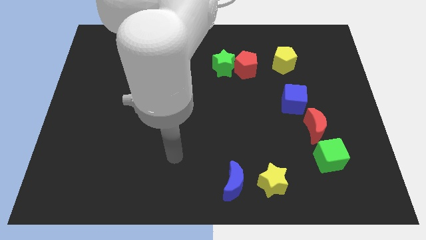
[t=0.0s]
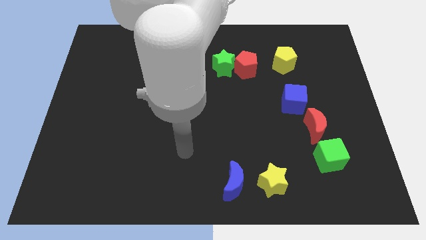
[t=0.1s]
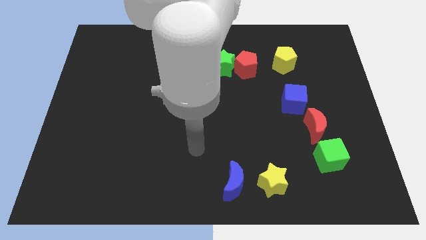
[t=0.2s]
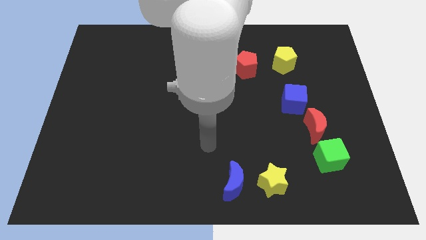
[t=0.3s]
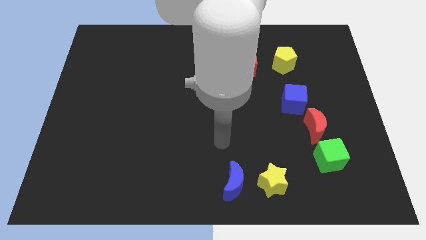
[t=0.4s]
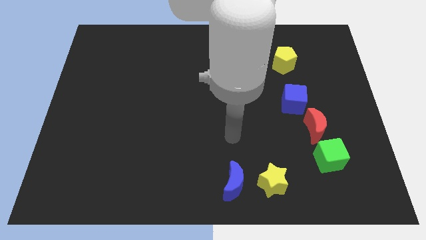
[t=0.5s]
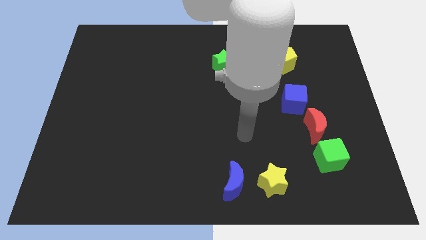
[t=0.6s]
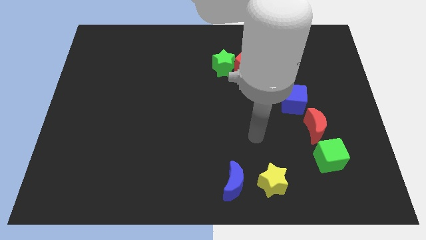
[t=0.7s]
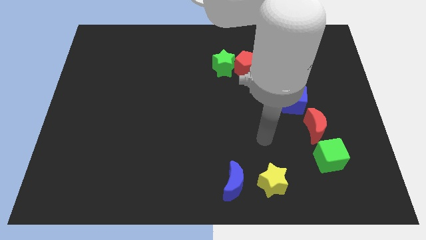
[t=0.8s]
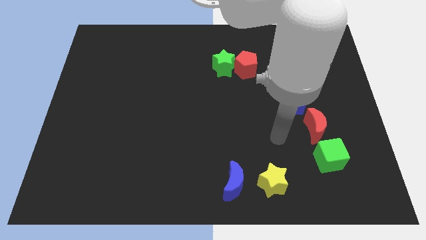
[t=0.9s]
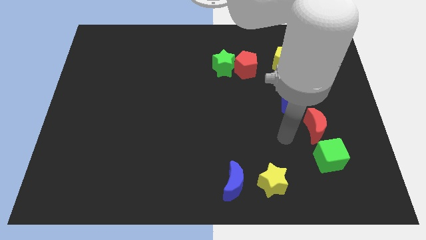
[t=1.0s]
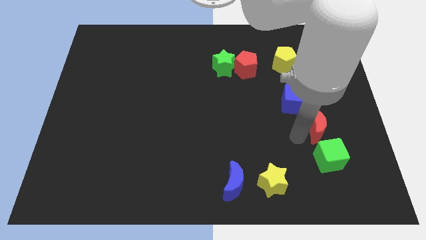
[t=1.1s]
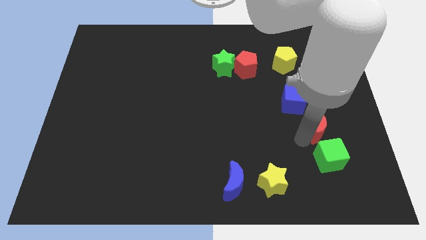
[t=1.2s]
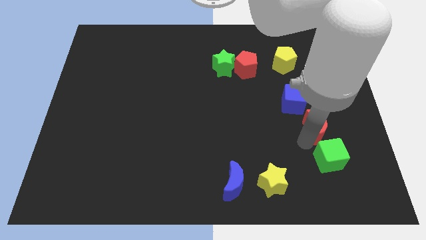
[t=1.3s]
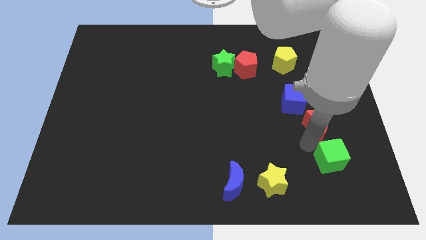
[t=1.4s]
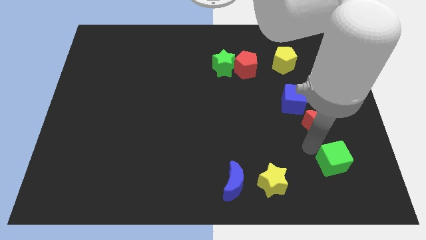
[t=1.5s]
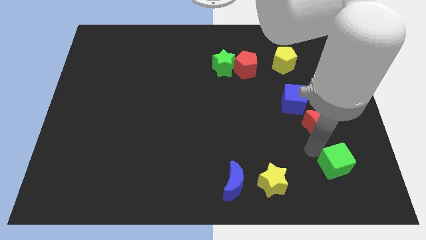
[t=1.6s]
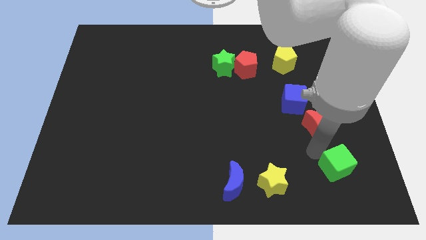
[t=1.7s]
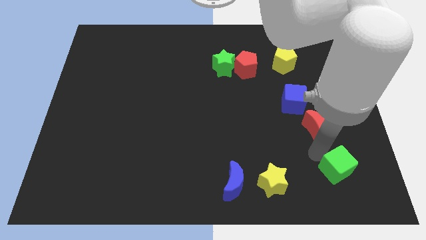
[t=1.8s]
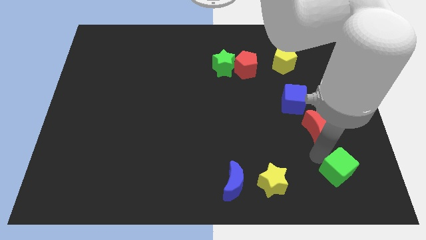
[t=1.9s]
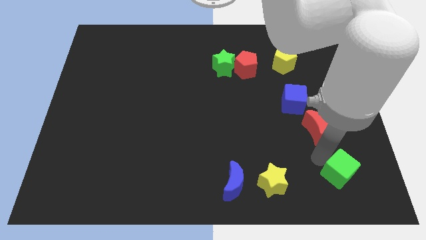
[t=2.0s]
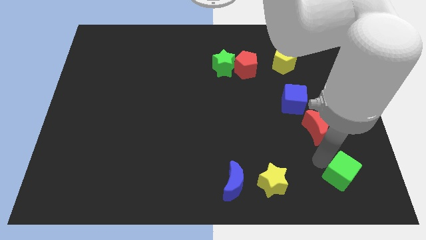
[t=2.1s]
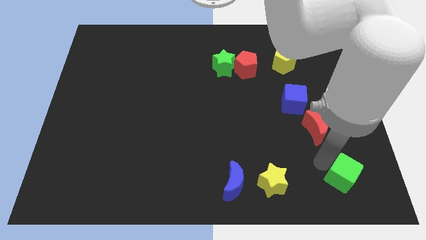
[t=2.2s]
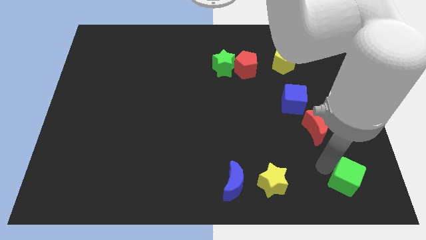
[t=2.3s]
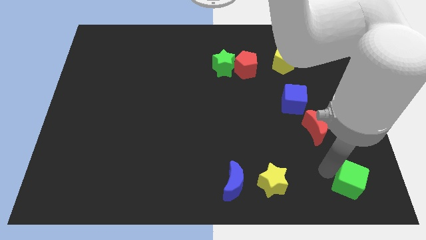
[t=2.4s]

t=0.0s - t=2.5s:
slide the green cube to the bottom right corner

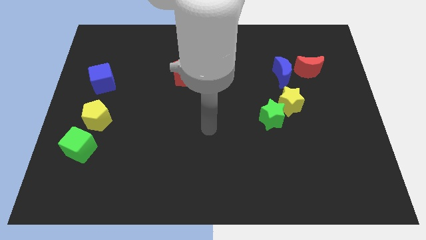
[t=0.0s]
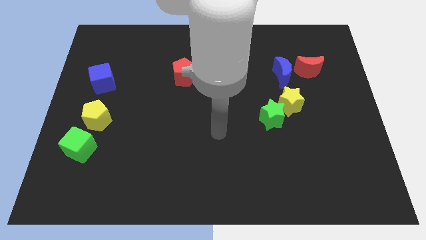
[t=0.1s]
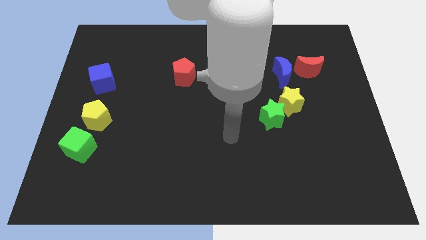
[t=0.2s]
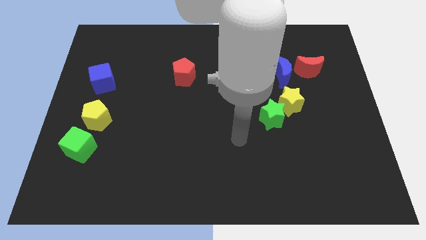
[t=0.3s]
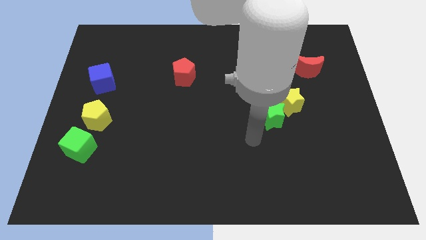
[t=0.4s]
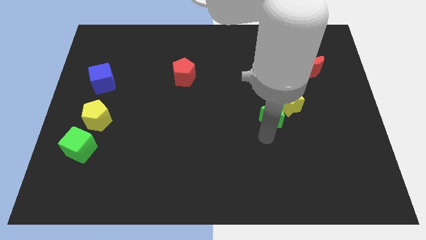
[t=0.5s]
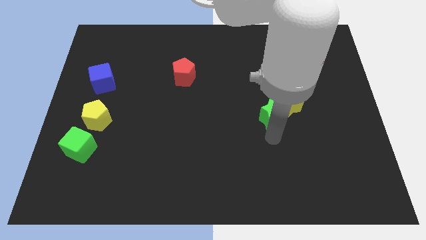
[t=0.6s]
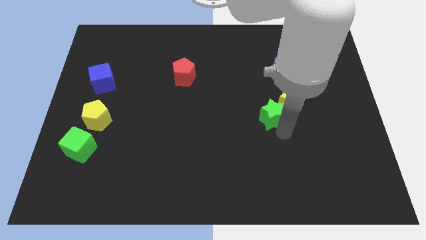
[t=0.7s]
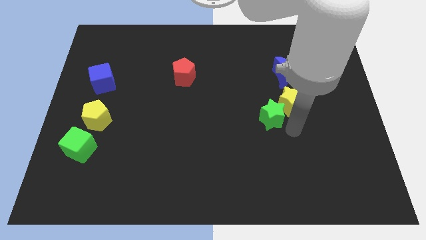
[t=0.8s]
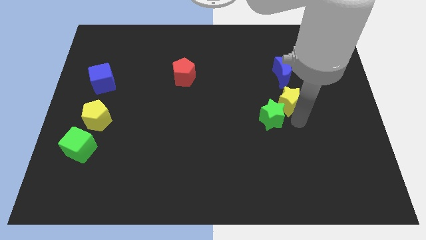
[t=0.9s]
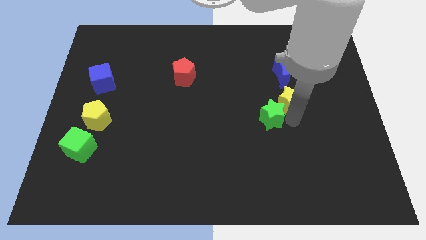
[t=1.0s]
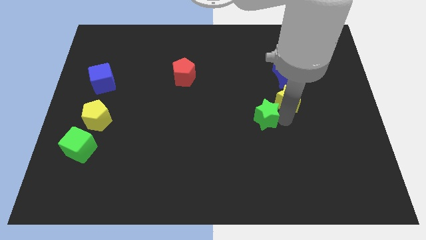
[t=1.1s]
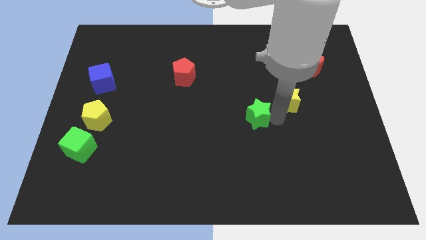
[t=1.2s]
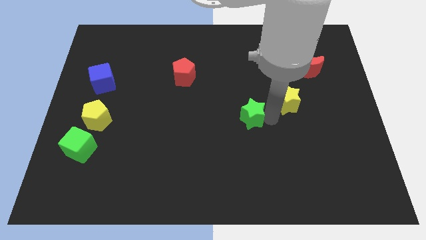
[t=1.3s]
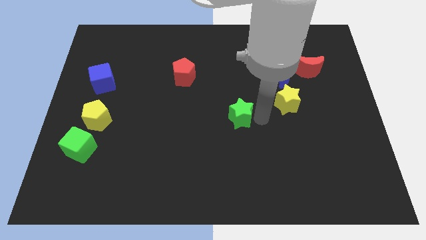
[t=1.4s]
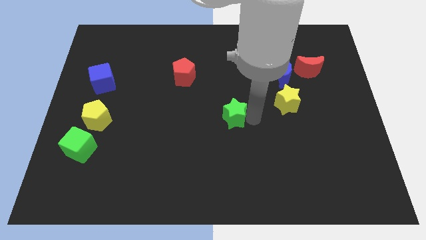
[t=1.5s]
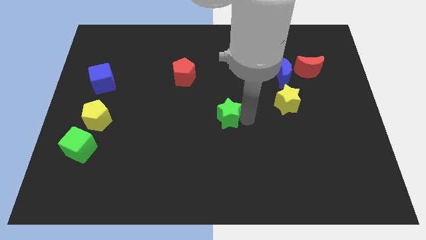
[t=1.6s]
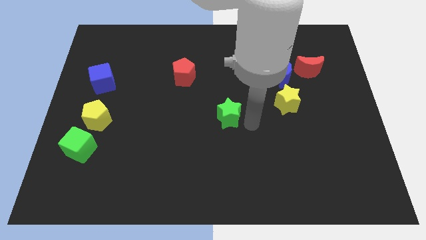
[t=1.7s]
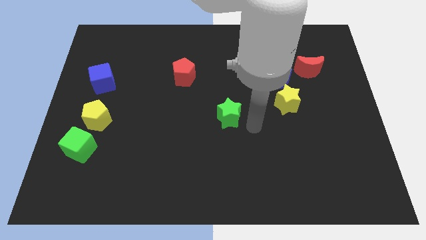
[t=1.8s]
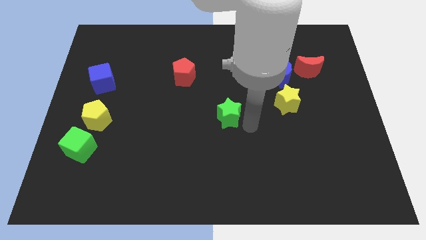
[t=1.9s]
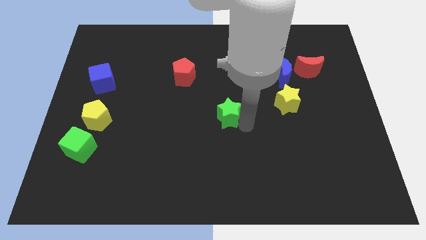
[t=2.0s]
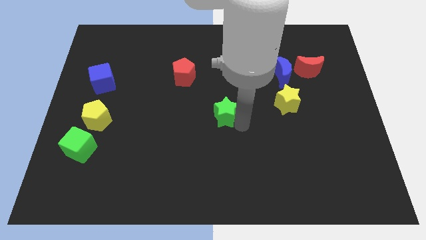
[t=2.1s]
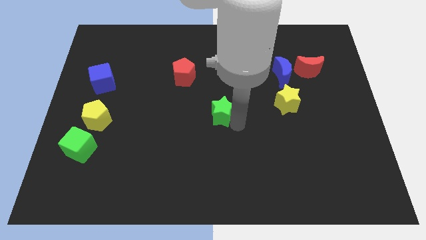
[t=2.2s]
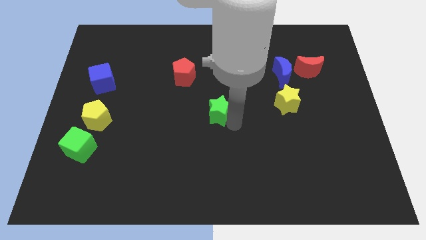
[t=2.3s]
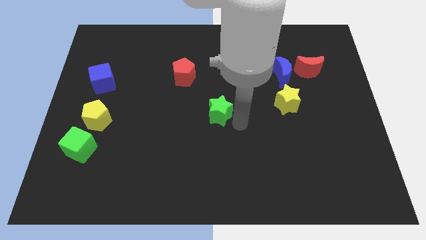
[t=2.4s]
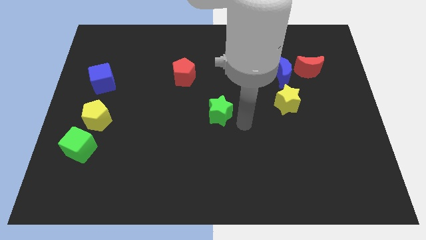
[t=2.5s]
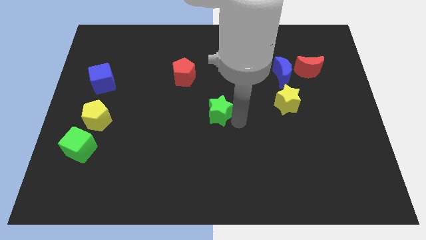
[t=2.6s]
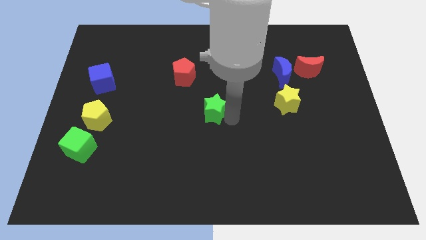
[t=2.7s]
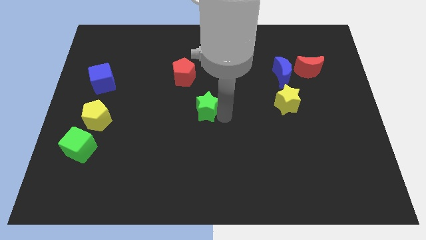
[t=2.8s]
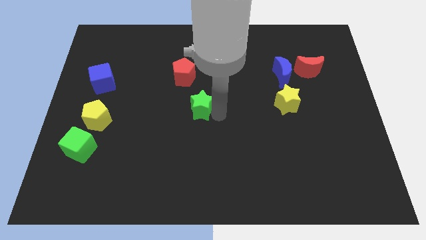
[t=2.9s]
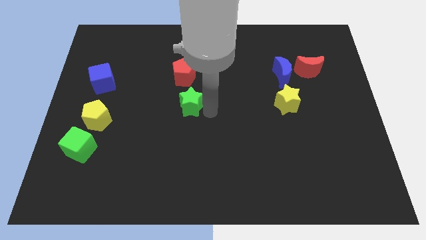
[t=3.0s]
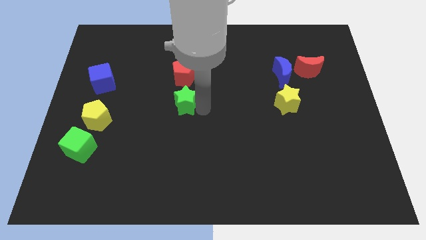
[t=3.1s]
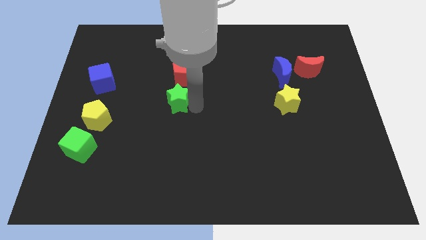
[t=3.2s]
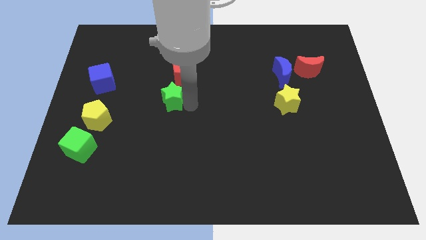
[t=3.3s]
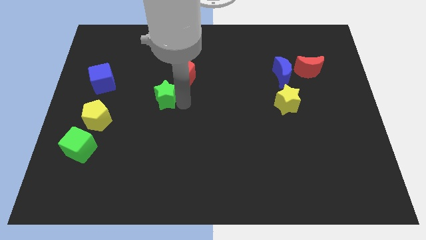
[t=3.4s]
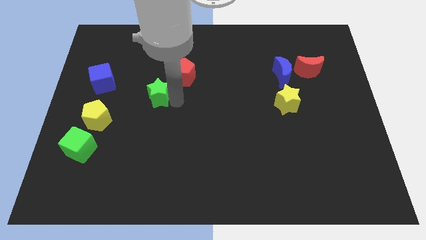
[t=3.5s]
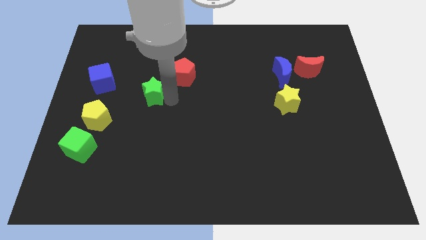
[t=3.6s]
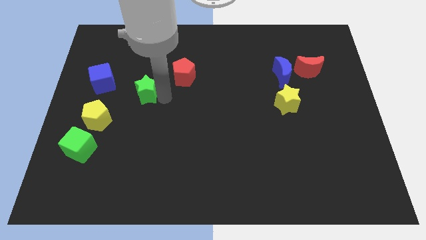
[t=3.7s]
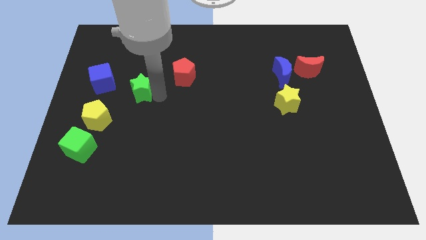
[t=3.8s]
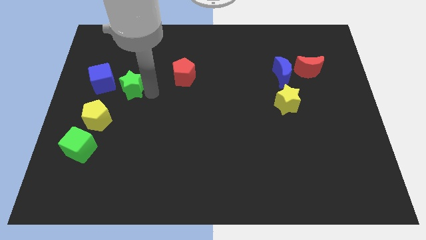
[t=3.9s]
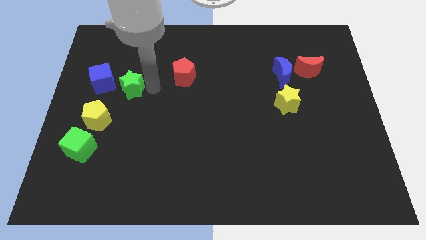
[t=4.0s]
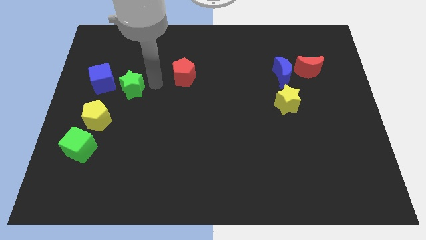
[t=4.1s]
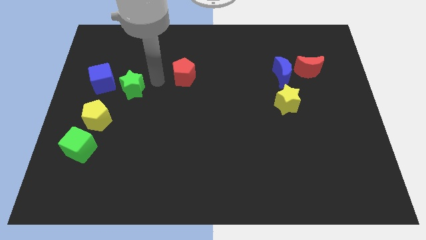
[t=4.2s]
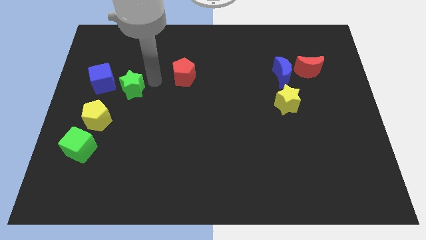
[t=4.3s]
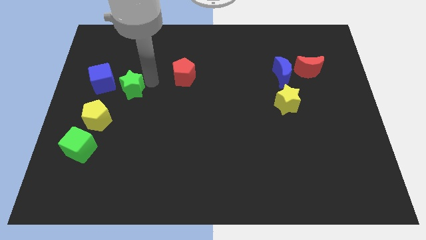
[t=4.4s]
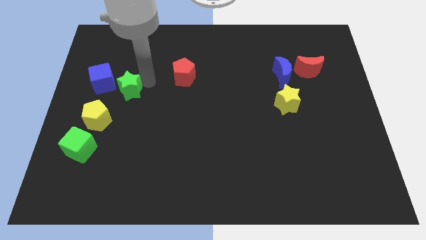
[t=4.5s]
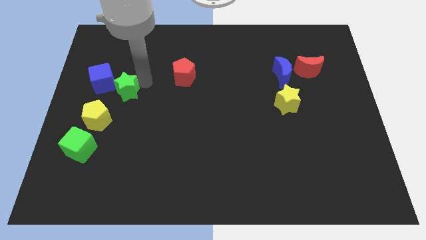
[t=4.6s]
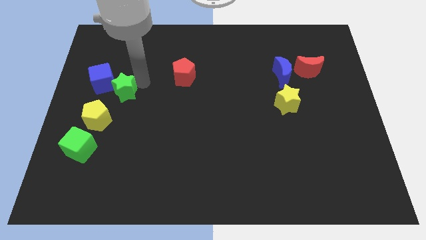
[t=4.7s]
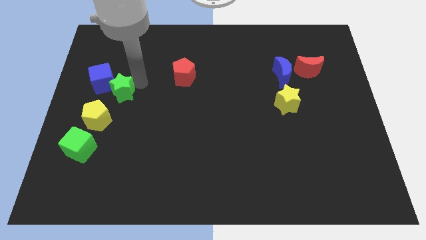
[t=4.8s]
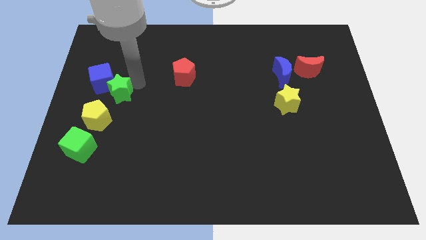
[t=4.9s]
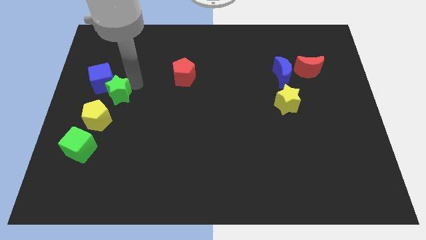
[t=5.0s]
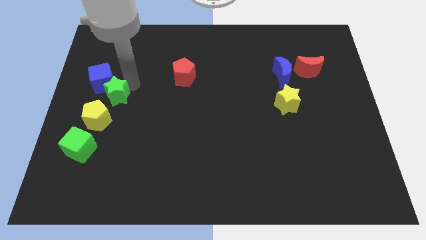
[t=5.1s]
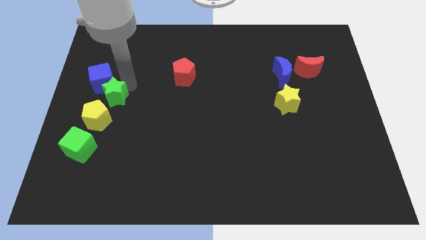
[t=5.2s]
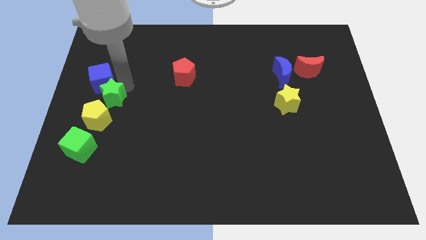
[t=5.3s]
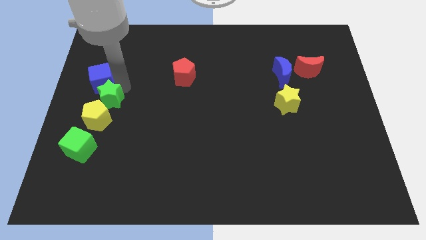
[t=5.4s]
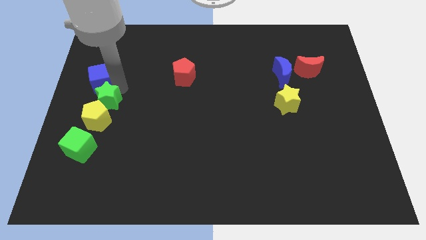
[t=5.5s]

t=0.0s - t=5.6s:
slide the green star to the center left
